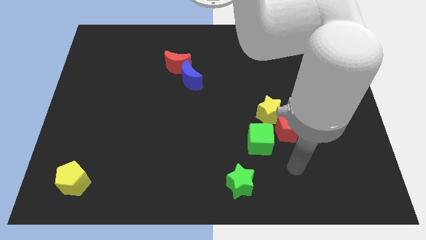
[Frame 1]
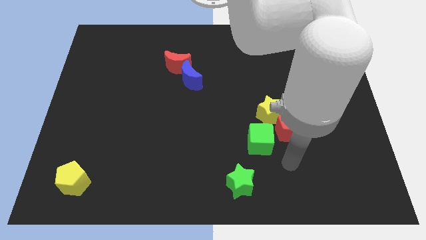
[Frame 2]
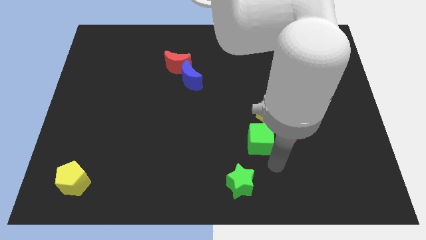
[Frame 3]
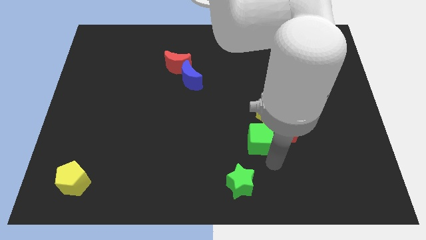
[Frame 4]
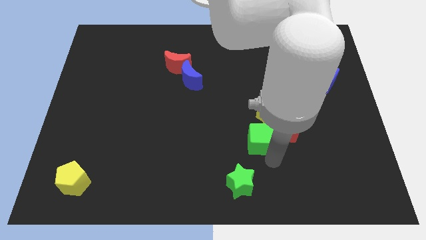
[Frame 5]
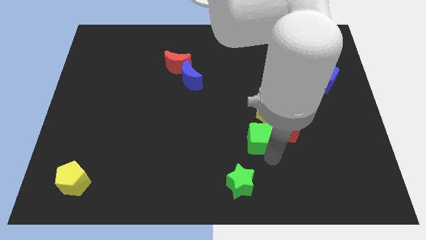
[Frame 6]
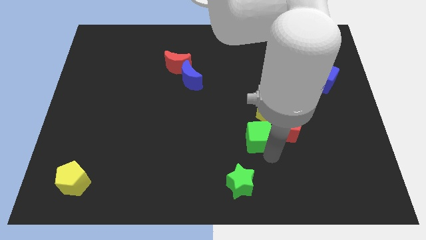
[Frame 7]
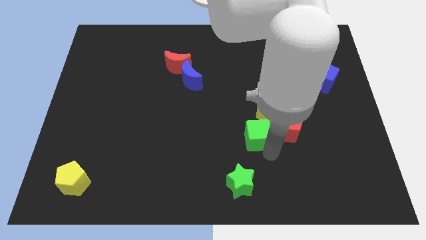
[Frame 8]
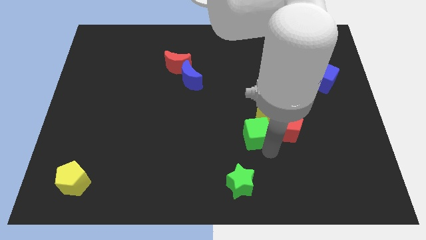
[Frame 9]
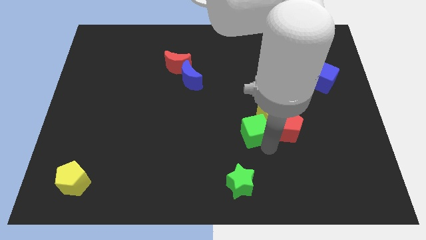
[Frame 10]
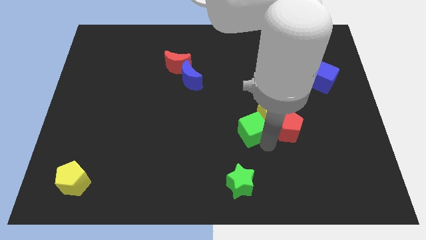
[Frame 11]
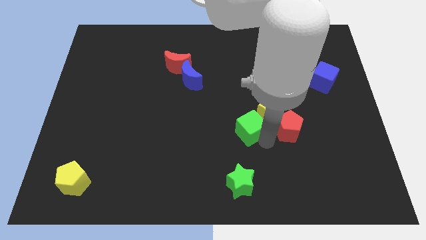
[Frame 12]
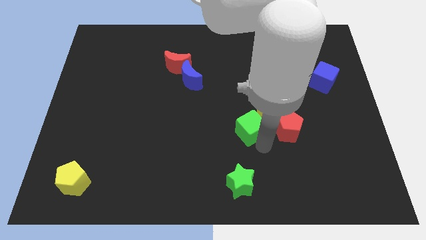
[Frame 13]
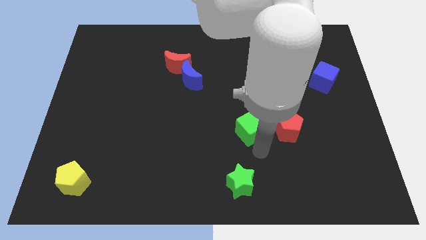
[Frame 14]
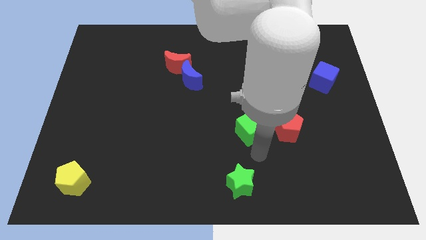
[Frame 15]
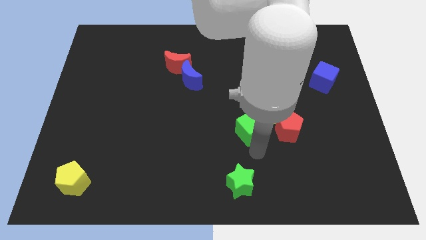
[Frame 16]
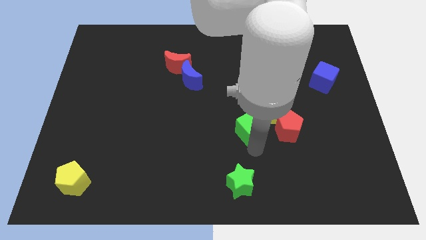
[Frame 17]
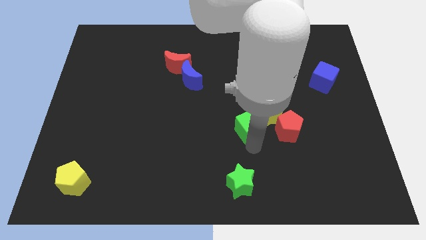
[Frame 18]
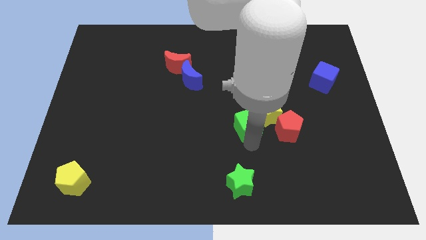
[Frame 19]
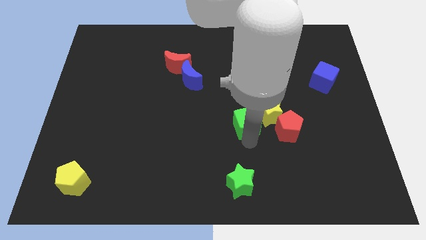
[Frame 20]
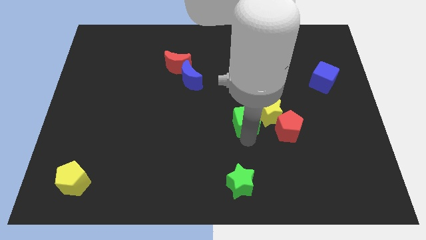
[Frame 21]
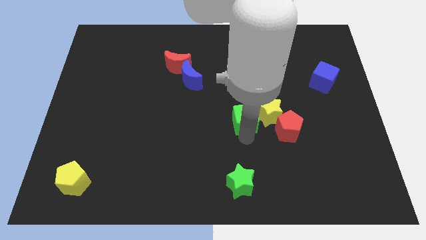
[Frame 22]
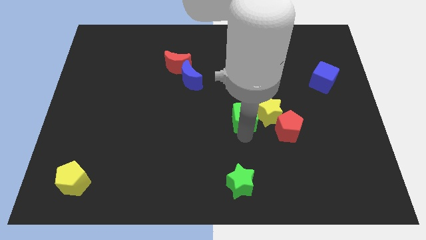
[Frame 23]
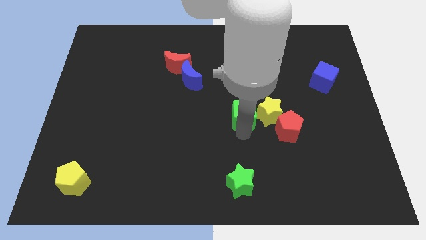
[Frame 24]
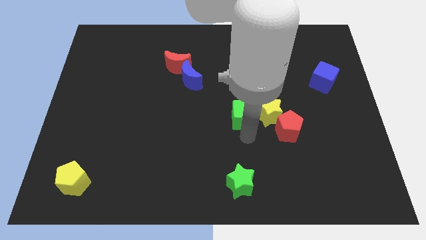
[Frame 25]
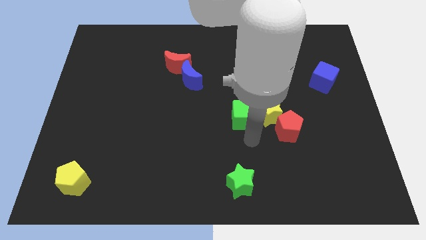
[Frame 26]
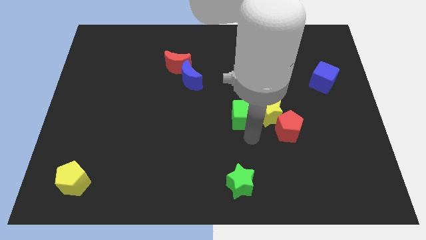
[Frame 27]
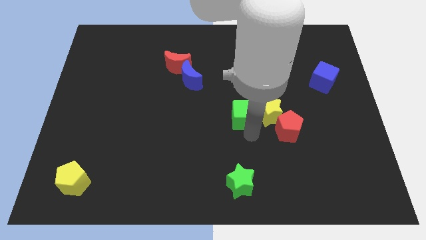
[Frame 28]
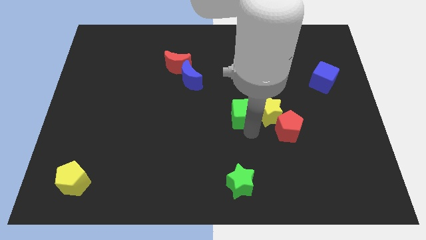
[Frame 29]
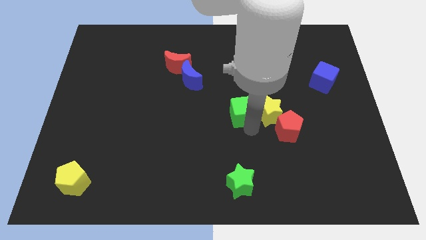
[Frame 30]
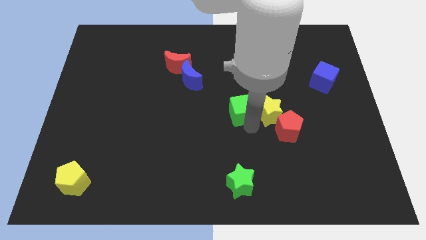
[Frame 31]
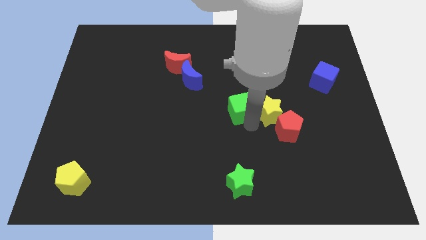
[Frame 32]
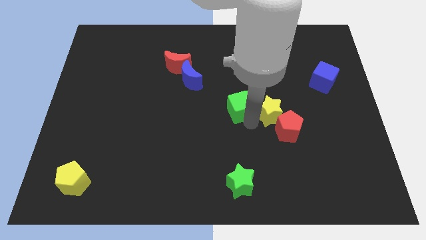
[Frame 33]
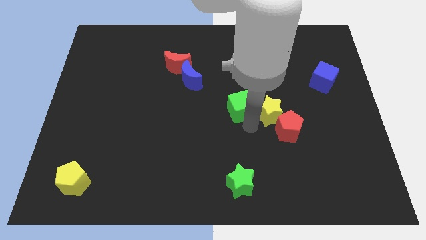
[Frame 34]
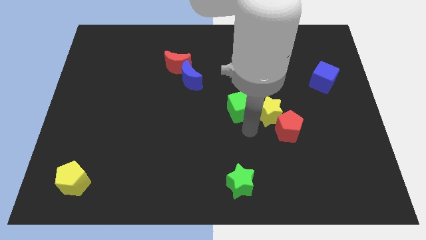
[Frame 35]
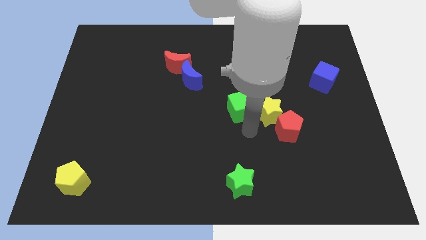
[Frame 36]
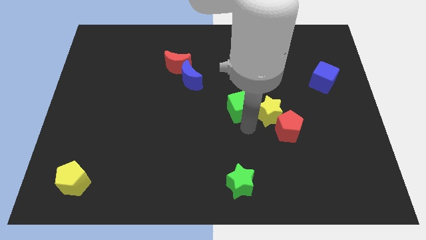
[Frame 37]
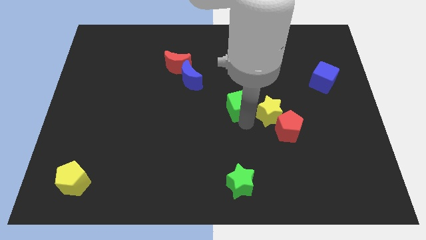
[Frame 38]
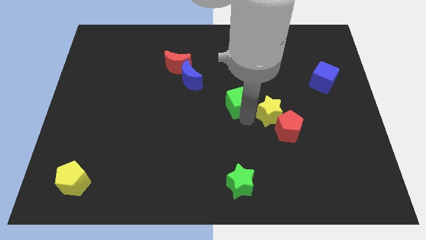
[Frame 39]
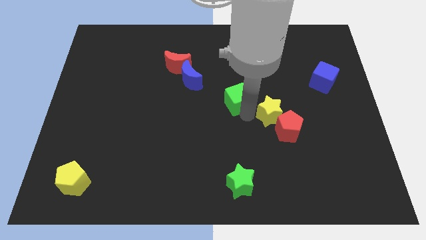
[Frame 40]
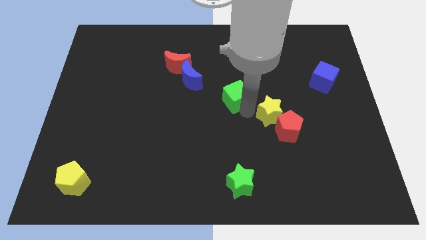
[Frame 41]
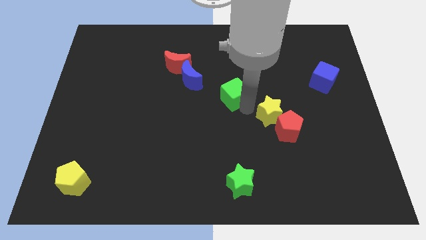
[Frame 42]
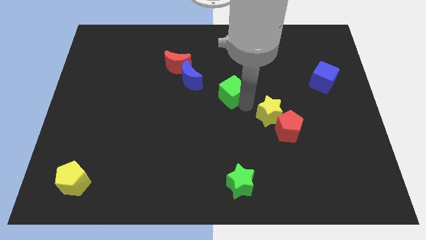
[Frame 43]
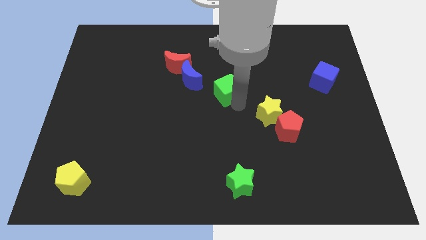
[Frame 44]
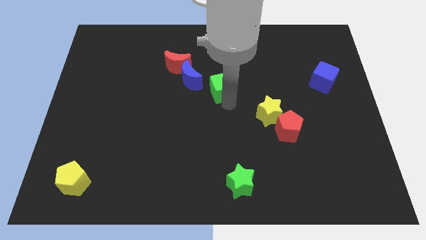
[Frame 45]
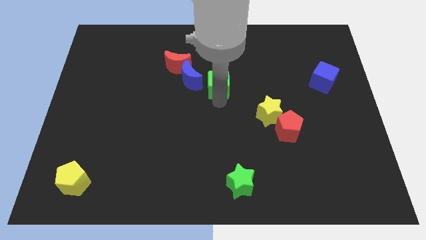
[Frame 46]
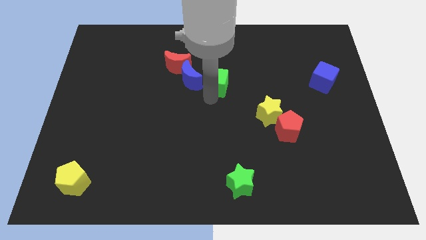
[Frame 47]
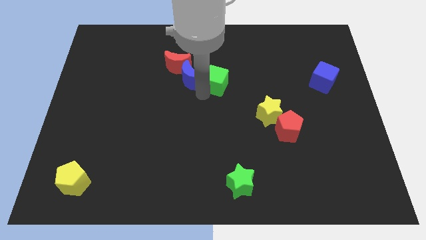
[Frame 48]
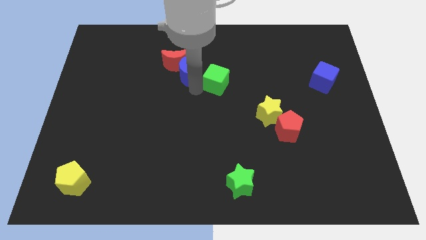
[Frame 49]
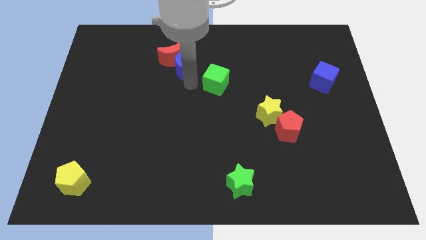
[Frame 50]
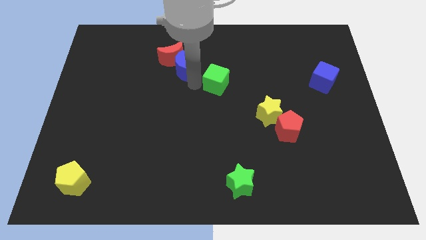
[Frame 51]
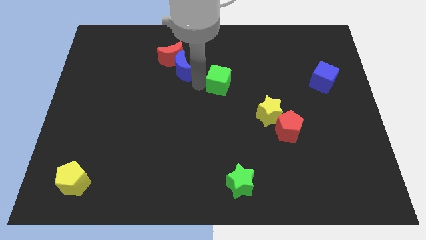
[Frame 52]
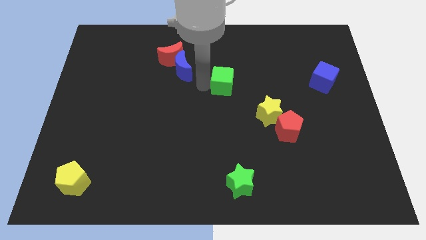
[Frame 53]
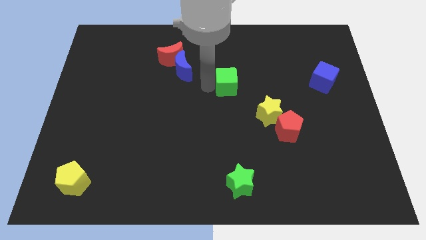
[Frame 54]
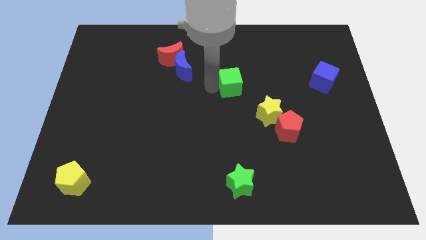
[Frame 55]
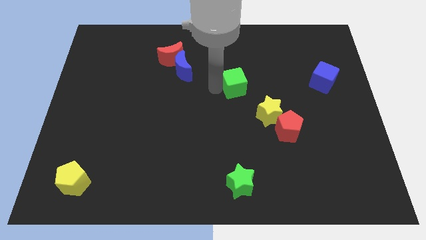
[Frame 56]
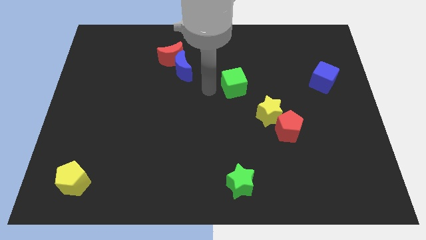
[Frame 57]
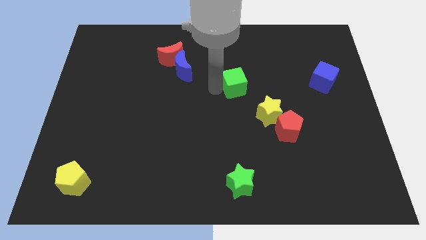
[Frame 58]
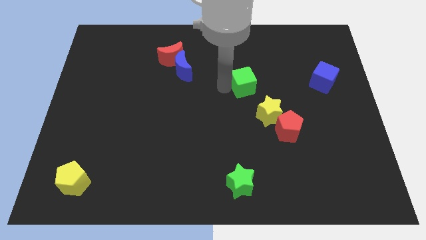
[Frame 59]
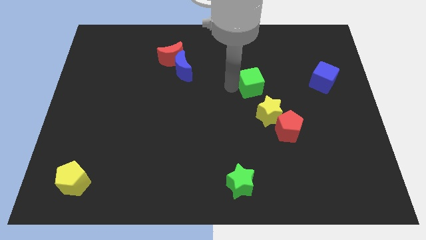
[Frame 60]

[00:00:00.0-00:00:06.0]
move the green cube to the top of the yellow star

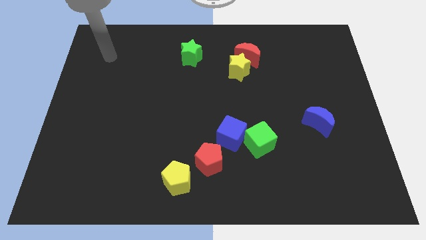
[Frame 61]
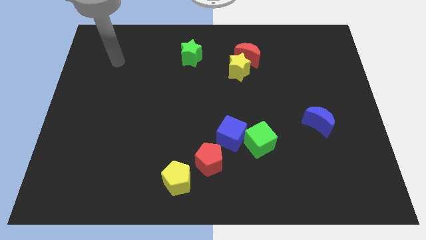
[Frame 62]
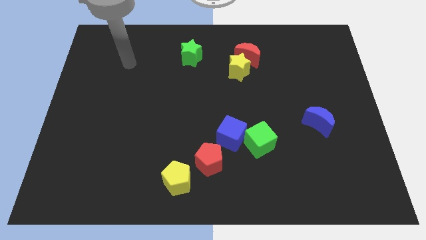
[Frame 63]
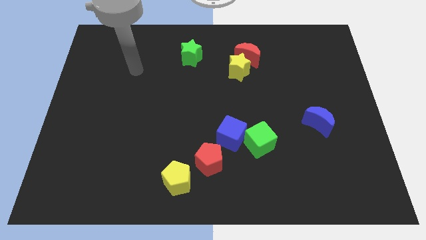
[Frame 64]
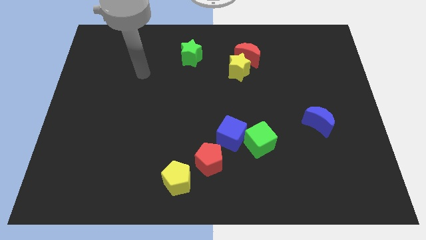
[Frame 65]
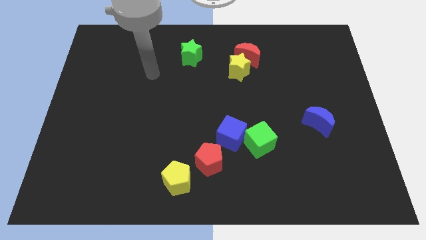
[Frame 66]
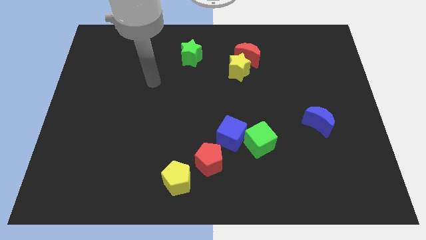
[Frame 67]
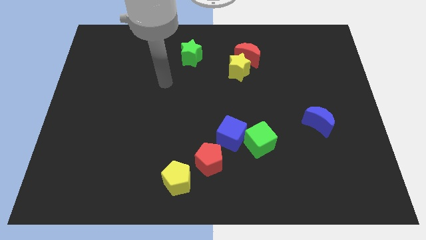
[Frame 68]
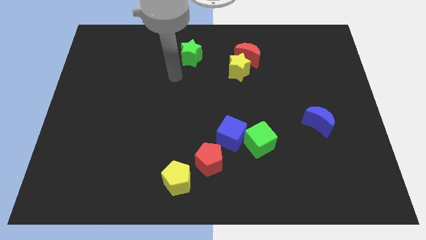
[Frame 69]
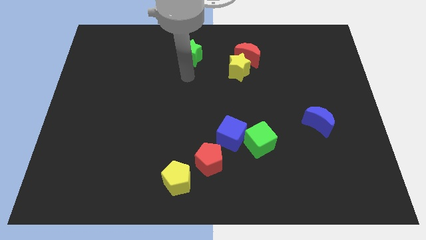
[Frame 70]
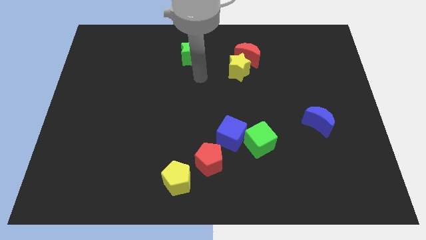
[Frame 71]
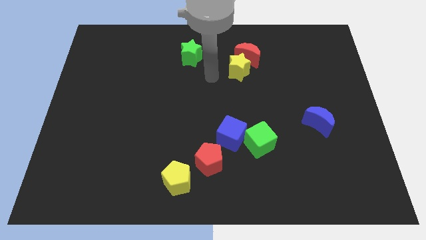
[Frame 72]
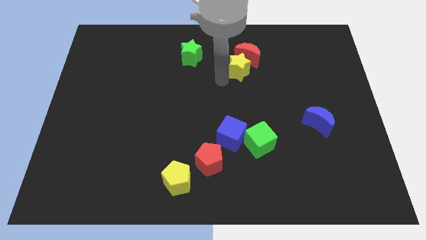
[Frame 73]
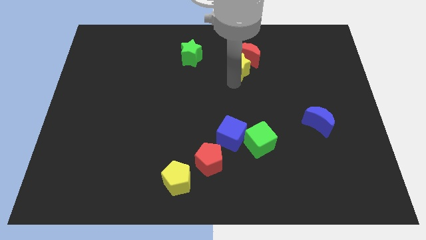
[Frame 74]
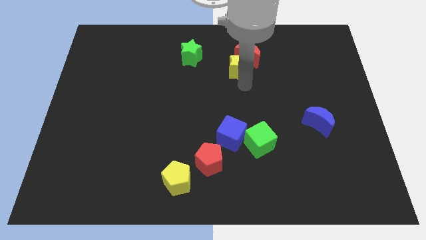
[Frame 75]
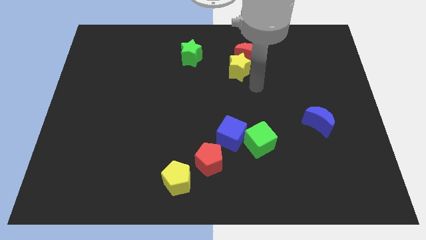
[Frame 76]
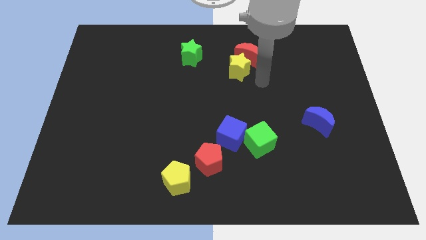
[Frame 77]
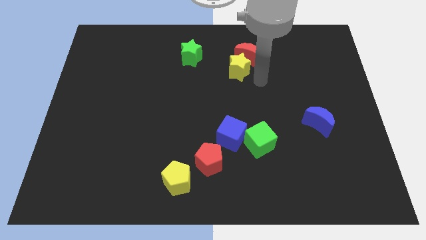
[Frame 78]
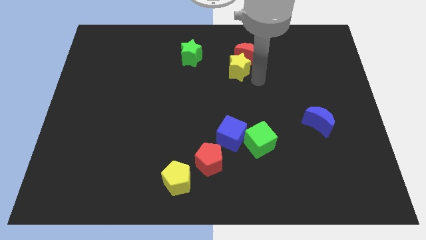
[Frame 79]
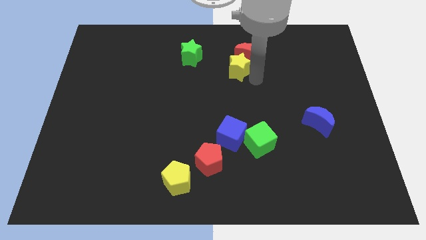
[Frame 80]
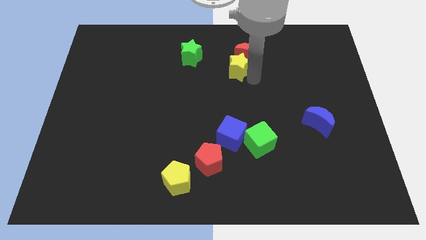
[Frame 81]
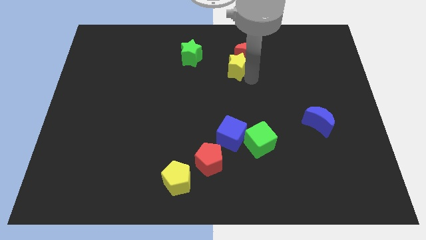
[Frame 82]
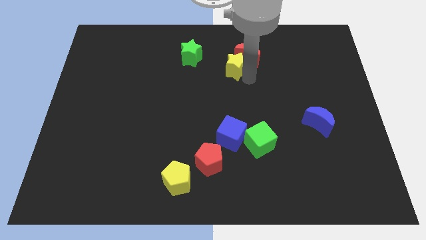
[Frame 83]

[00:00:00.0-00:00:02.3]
put the yellow star to the left side of the red moon
